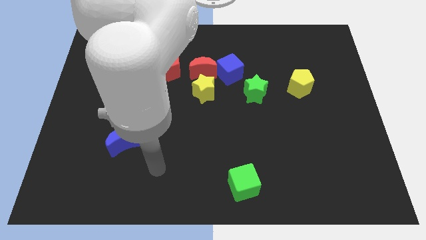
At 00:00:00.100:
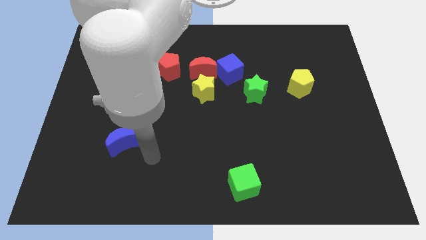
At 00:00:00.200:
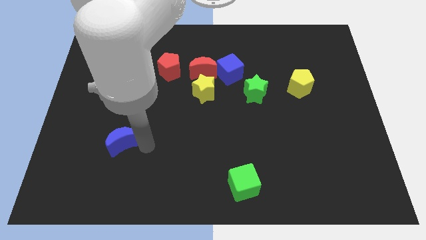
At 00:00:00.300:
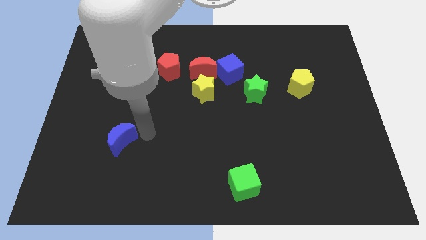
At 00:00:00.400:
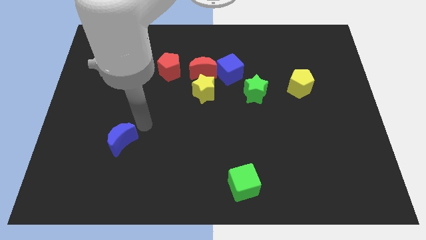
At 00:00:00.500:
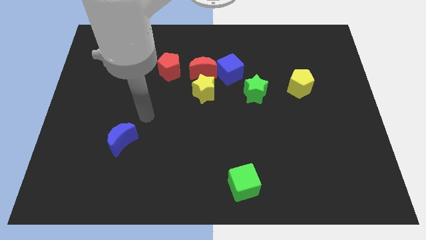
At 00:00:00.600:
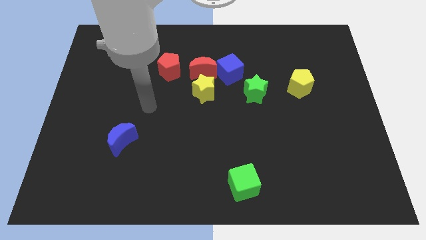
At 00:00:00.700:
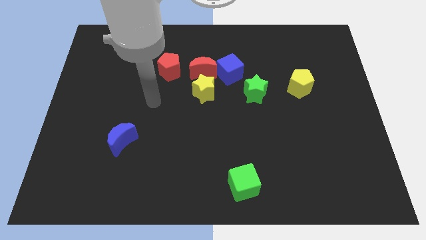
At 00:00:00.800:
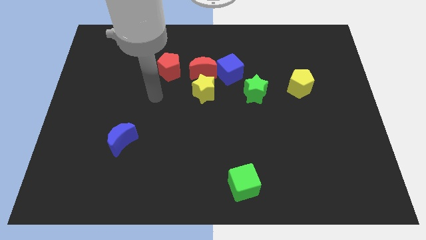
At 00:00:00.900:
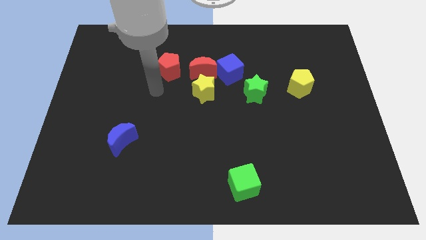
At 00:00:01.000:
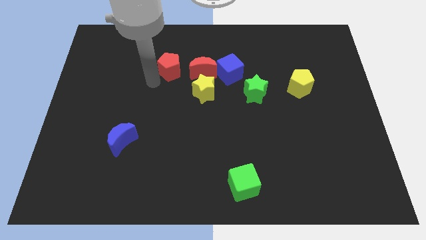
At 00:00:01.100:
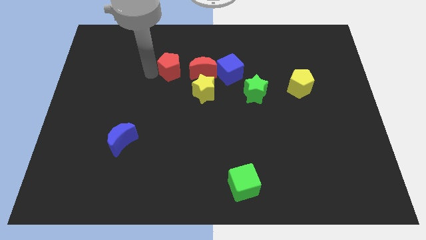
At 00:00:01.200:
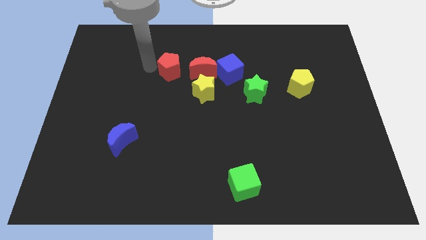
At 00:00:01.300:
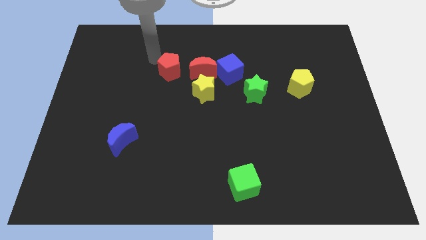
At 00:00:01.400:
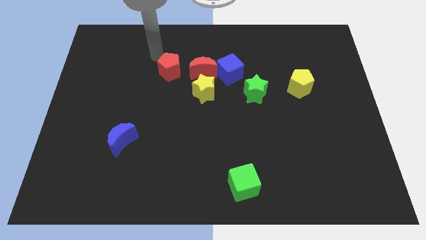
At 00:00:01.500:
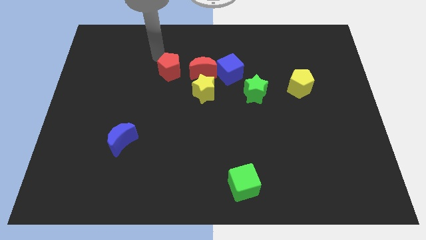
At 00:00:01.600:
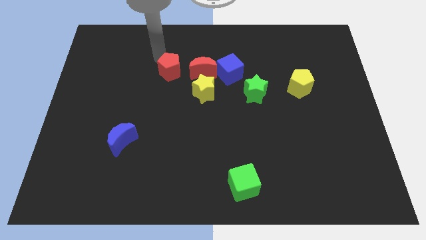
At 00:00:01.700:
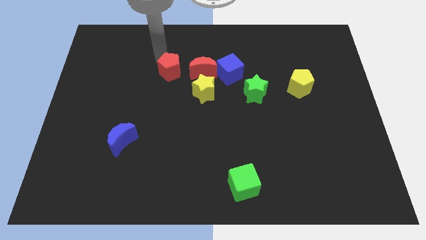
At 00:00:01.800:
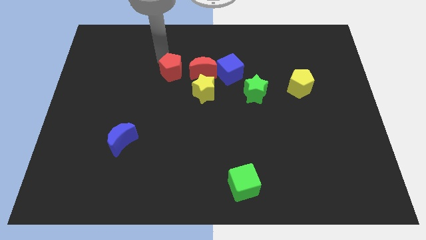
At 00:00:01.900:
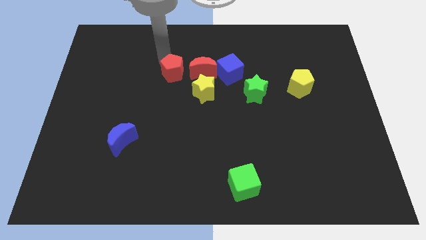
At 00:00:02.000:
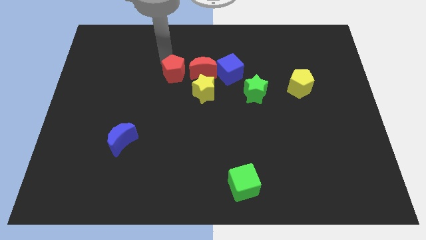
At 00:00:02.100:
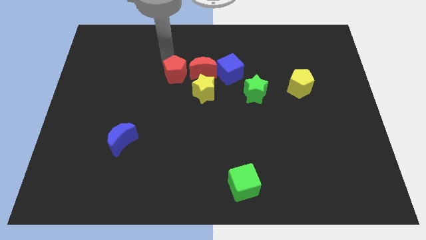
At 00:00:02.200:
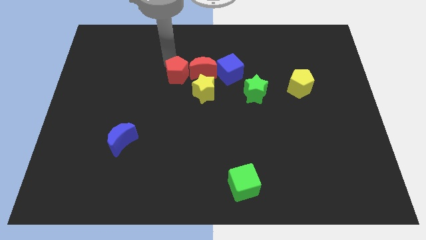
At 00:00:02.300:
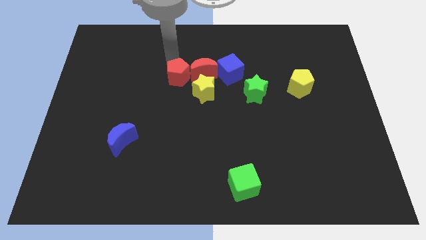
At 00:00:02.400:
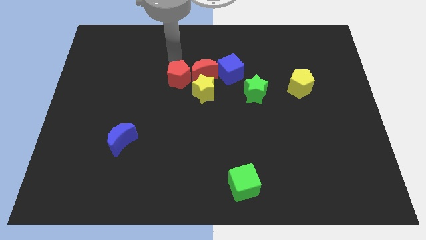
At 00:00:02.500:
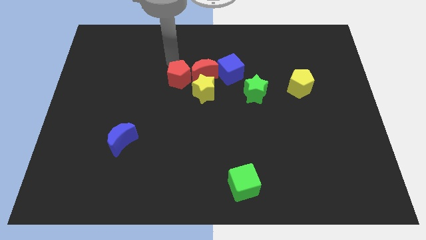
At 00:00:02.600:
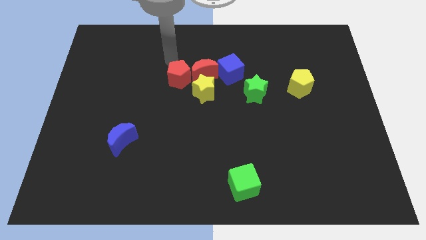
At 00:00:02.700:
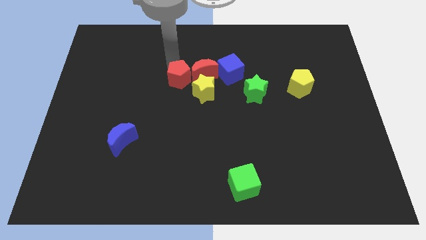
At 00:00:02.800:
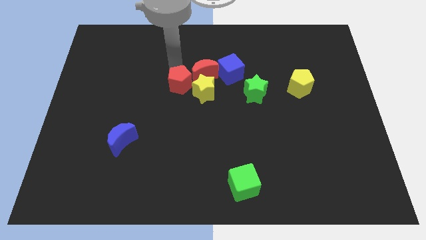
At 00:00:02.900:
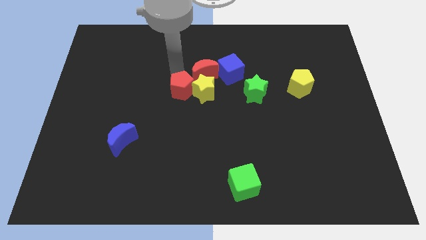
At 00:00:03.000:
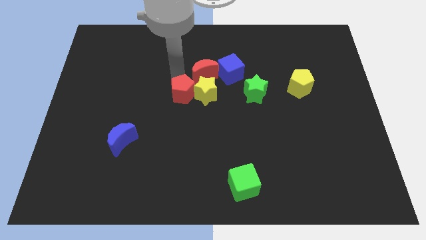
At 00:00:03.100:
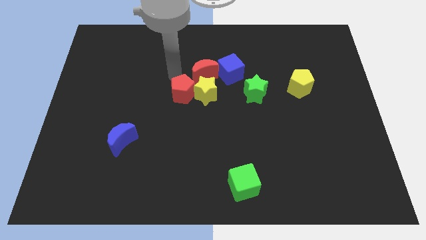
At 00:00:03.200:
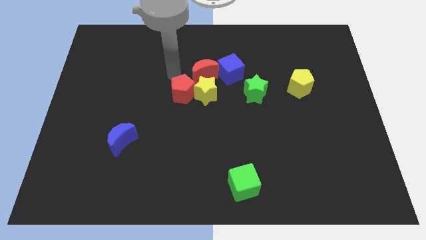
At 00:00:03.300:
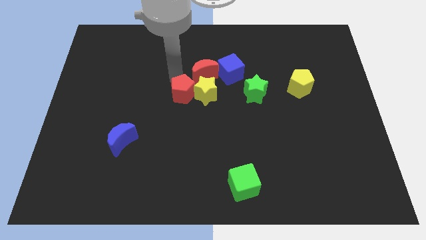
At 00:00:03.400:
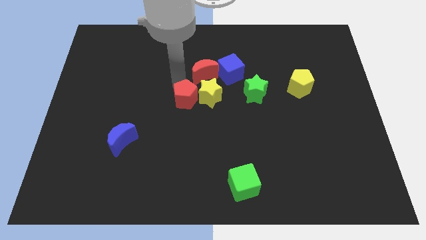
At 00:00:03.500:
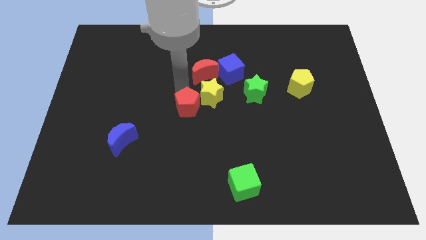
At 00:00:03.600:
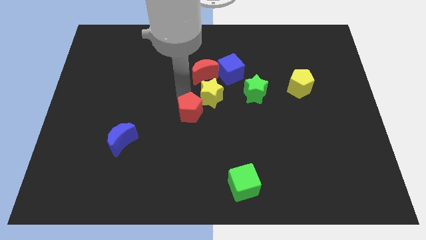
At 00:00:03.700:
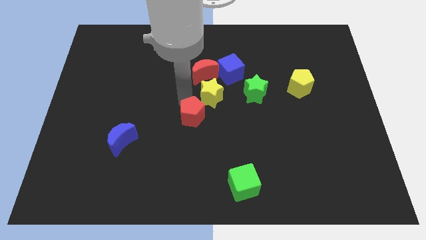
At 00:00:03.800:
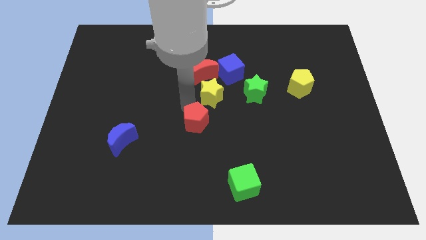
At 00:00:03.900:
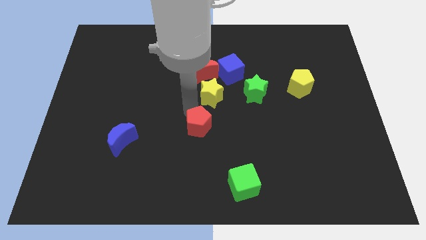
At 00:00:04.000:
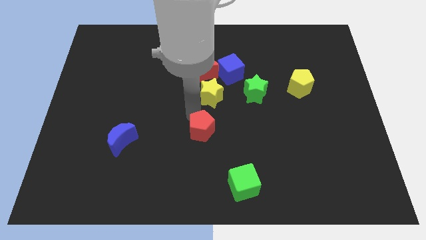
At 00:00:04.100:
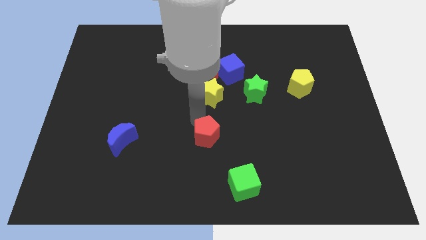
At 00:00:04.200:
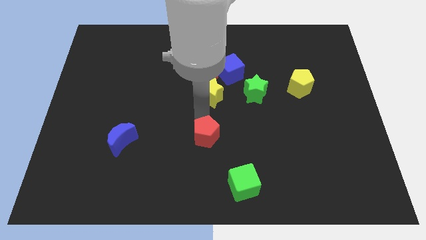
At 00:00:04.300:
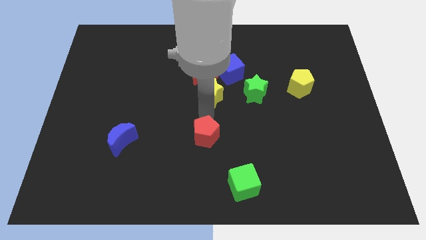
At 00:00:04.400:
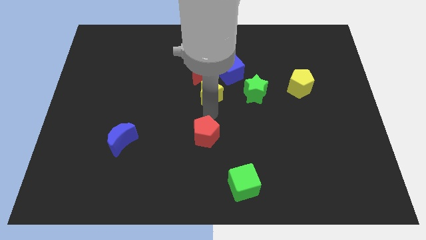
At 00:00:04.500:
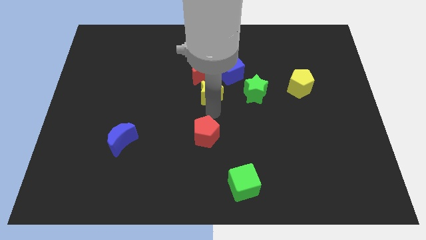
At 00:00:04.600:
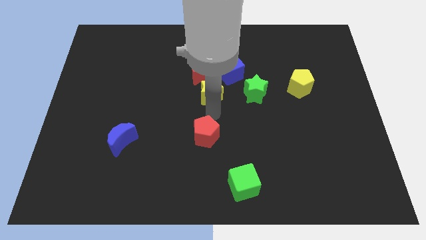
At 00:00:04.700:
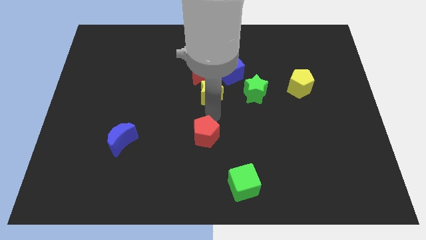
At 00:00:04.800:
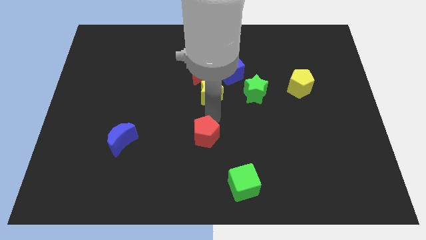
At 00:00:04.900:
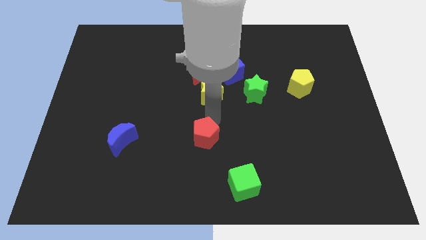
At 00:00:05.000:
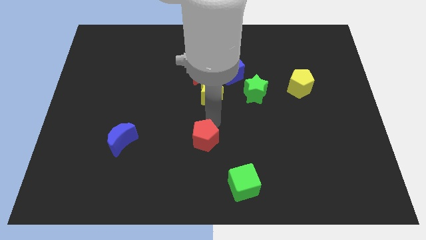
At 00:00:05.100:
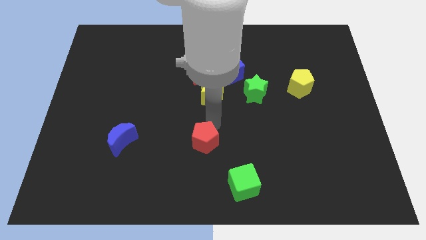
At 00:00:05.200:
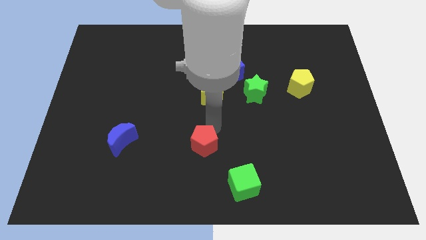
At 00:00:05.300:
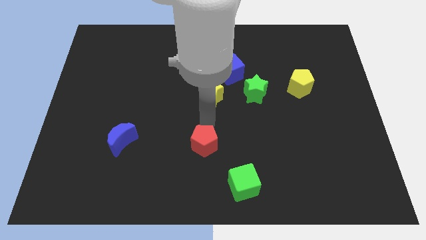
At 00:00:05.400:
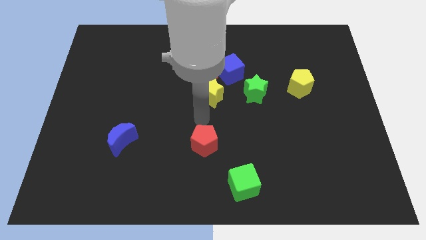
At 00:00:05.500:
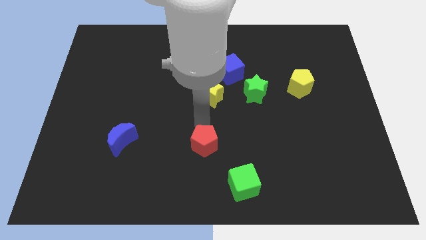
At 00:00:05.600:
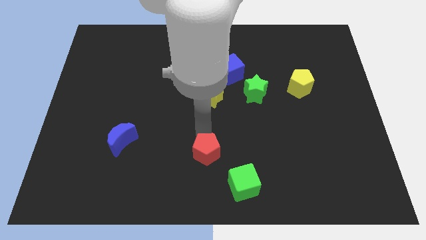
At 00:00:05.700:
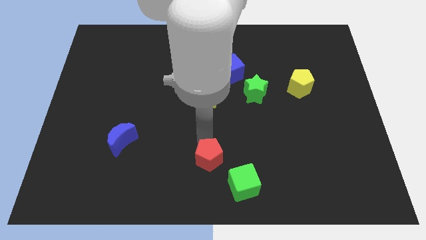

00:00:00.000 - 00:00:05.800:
push the red pentagon to the bottom

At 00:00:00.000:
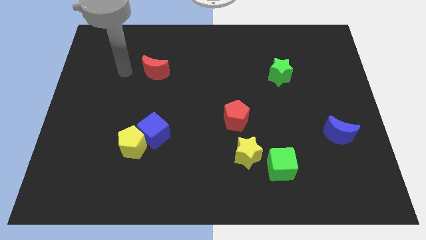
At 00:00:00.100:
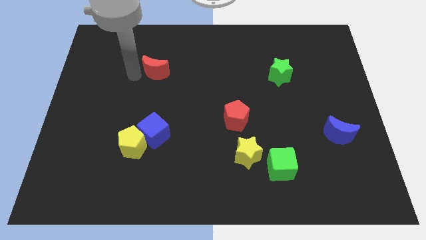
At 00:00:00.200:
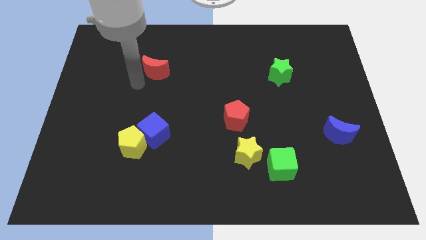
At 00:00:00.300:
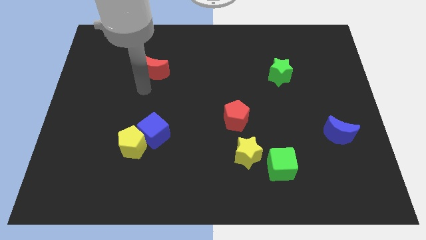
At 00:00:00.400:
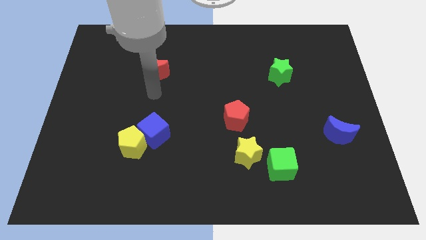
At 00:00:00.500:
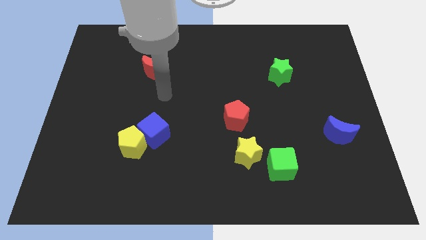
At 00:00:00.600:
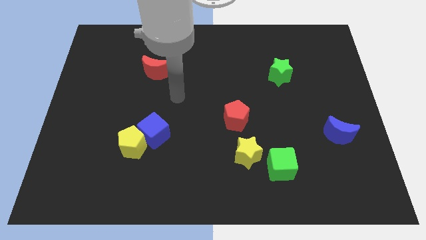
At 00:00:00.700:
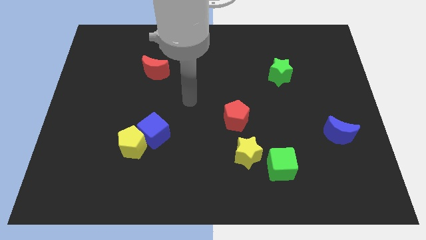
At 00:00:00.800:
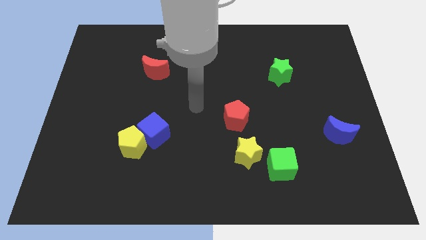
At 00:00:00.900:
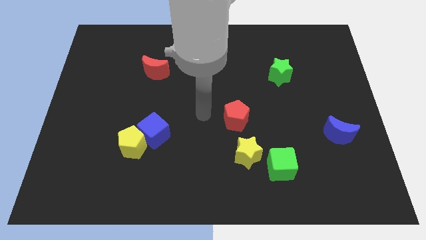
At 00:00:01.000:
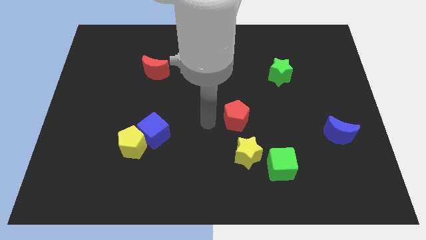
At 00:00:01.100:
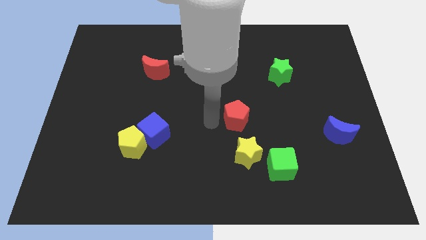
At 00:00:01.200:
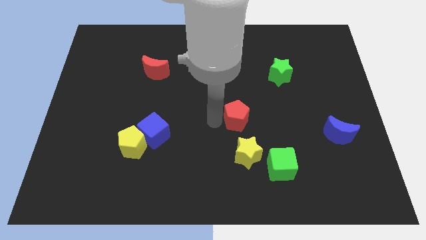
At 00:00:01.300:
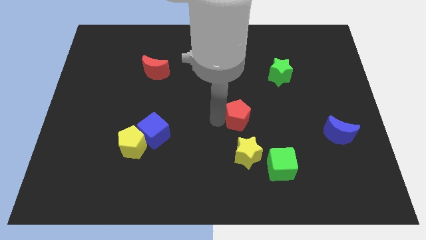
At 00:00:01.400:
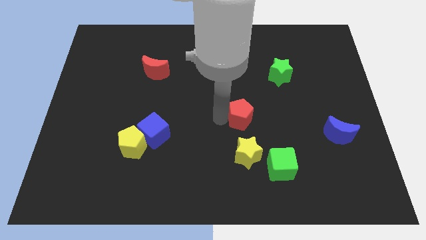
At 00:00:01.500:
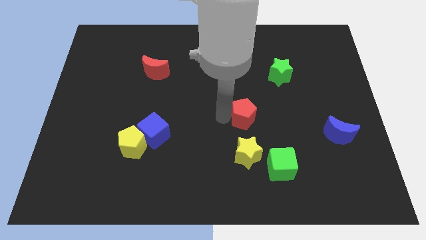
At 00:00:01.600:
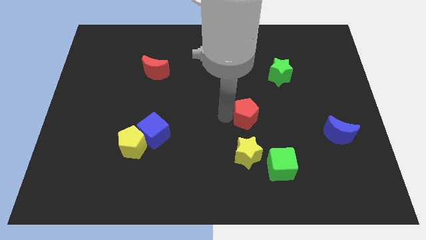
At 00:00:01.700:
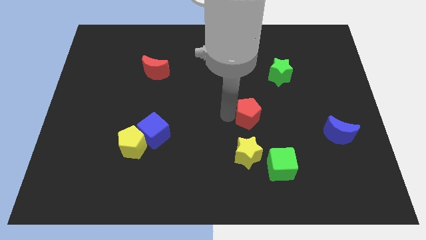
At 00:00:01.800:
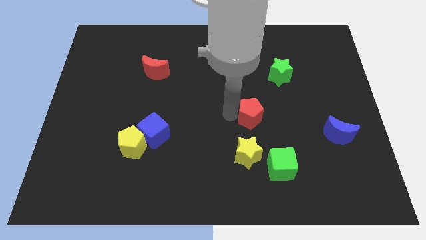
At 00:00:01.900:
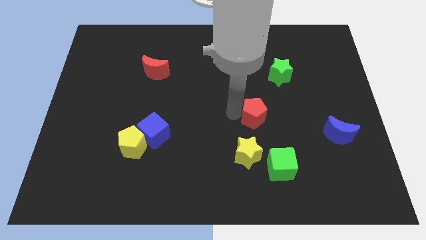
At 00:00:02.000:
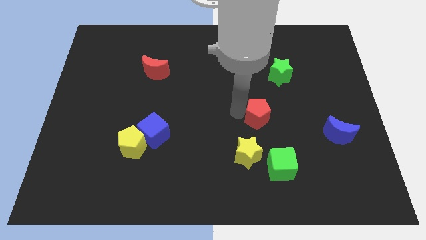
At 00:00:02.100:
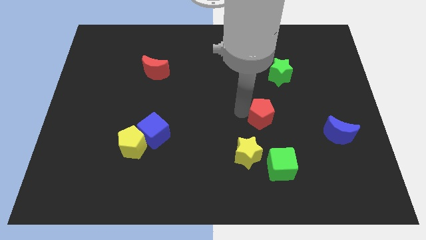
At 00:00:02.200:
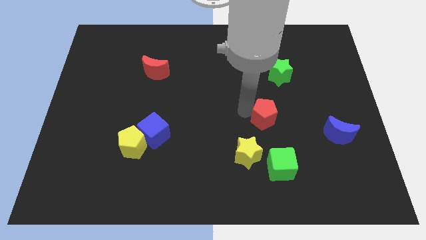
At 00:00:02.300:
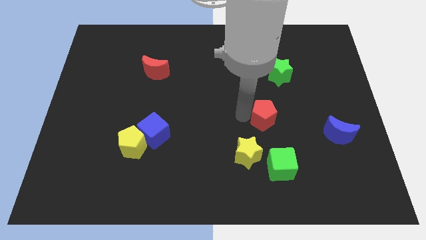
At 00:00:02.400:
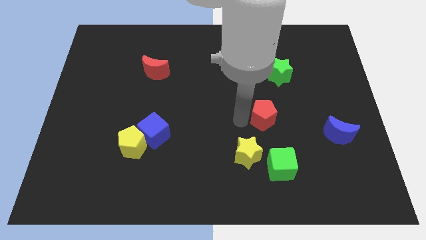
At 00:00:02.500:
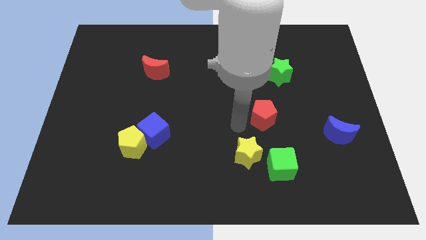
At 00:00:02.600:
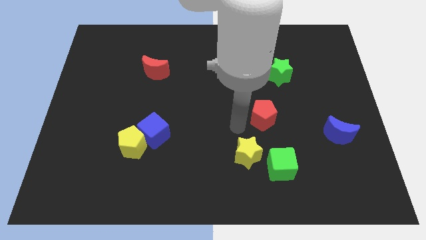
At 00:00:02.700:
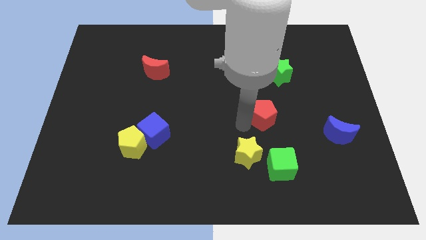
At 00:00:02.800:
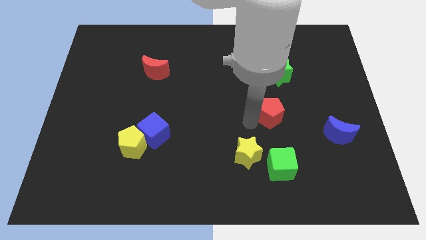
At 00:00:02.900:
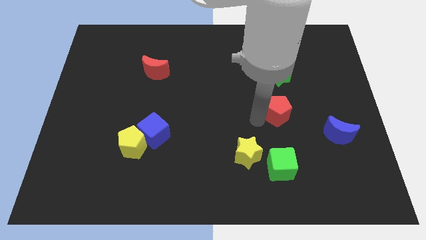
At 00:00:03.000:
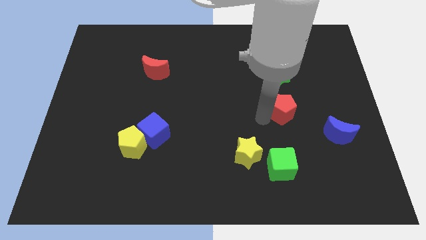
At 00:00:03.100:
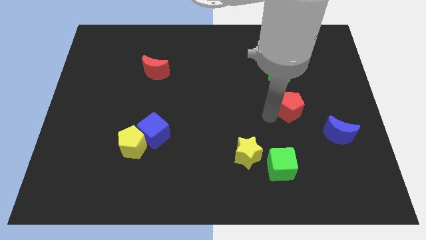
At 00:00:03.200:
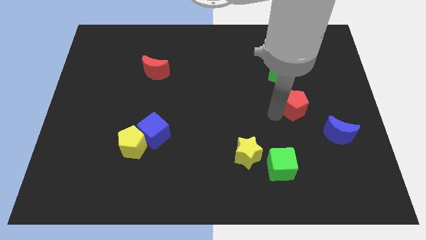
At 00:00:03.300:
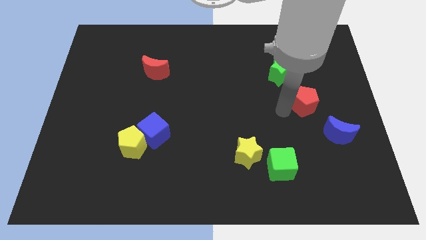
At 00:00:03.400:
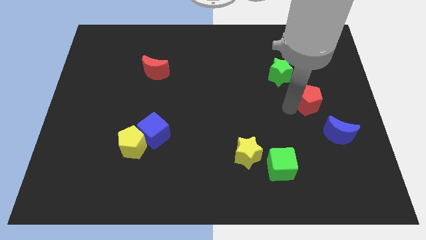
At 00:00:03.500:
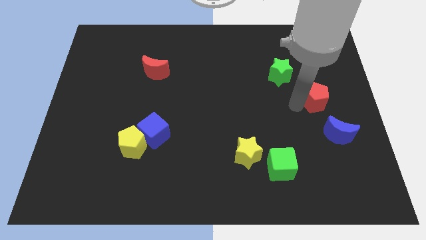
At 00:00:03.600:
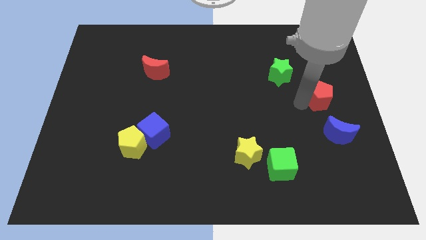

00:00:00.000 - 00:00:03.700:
put the red pentagon to the right side of the board
